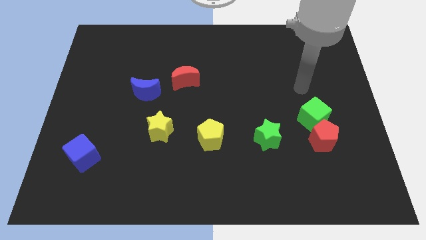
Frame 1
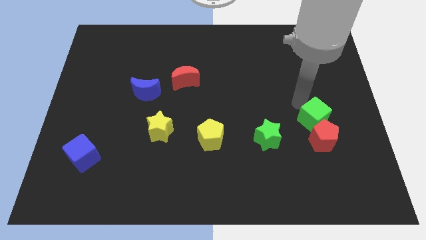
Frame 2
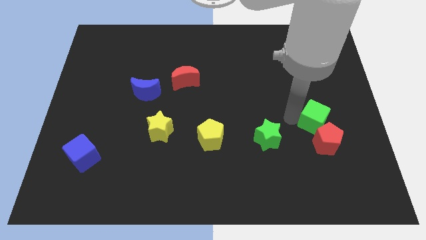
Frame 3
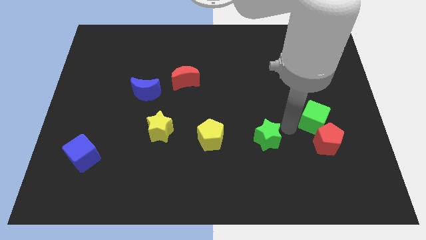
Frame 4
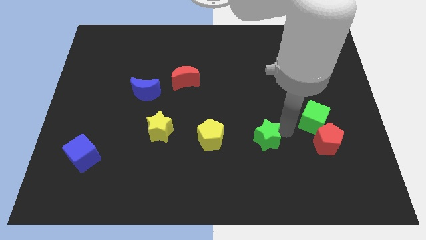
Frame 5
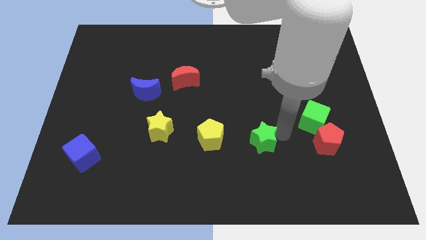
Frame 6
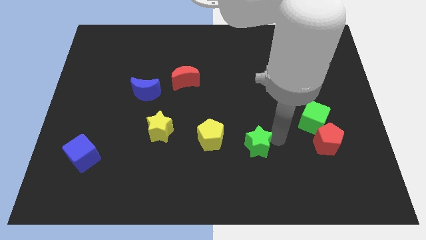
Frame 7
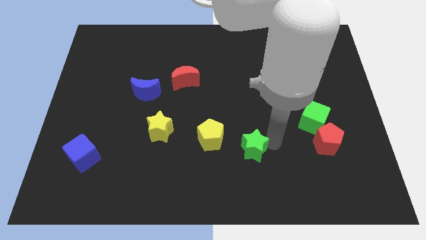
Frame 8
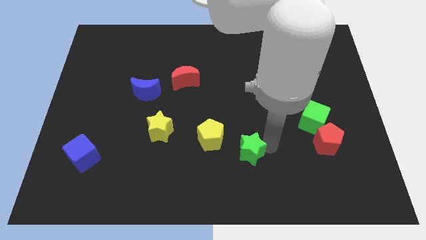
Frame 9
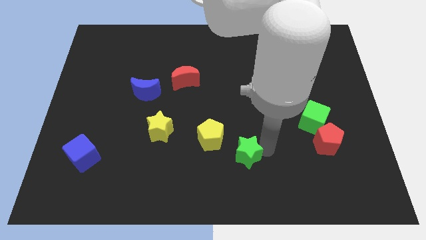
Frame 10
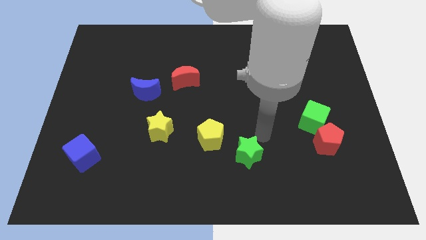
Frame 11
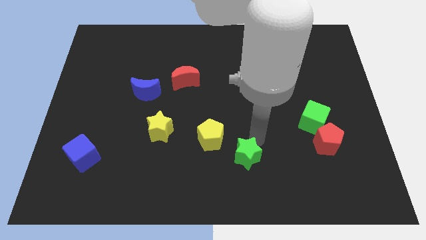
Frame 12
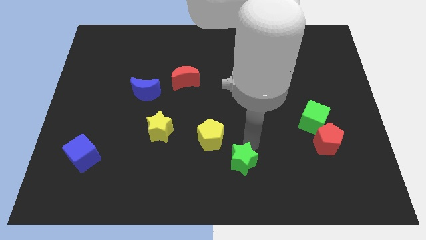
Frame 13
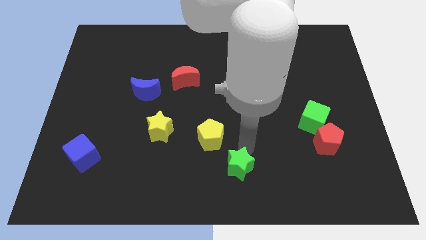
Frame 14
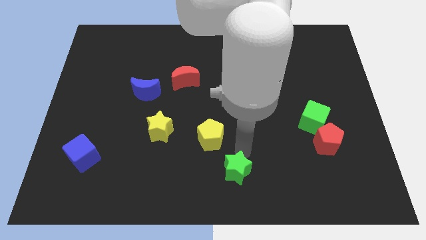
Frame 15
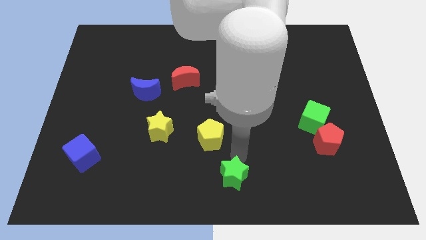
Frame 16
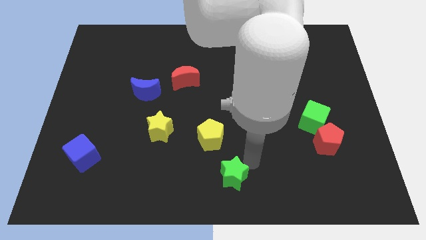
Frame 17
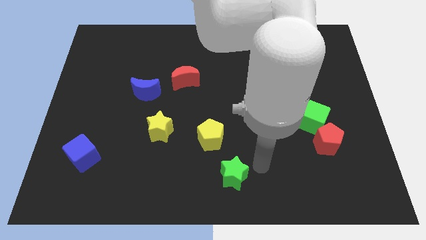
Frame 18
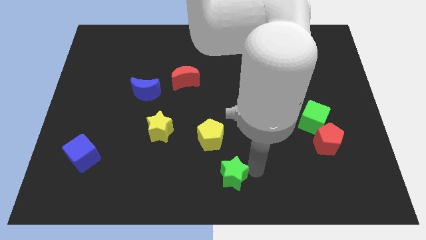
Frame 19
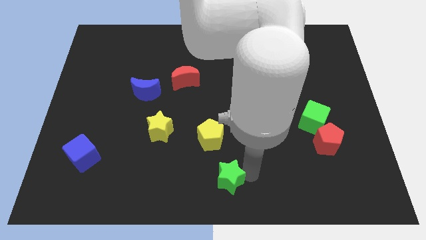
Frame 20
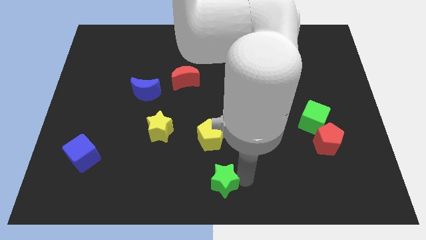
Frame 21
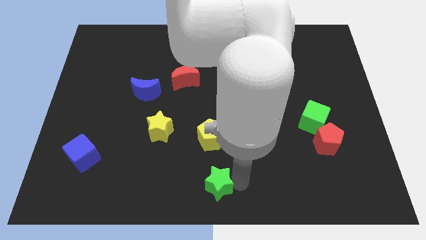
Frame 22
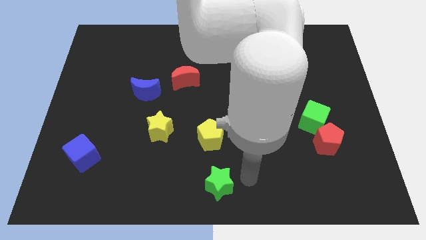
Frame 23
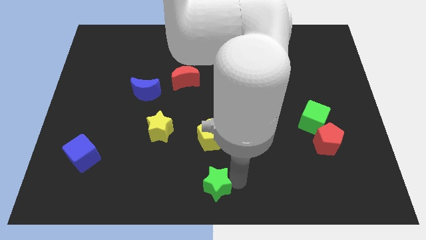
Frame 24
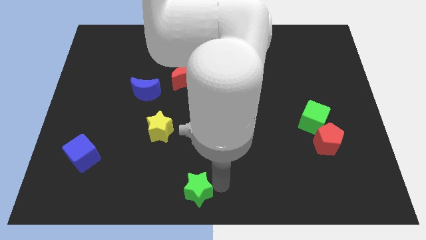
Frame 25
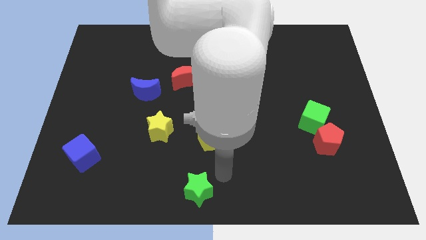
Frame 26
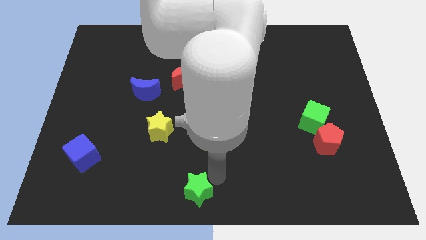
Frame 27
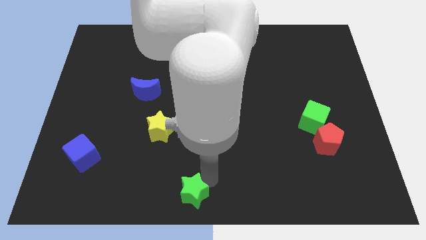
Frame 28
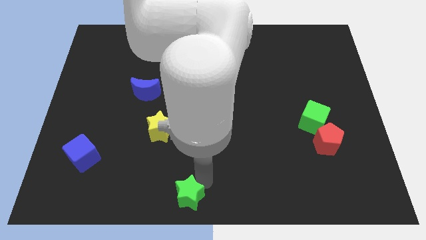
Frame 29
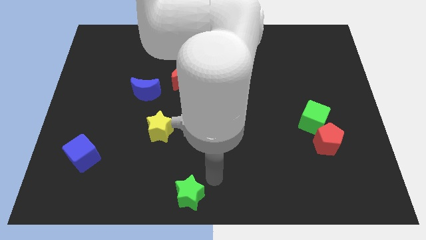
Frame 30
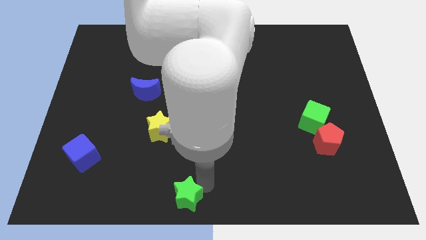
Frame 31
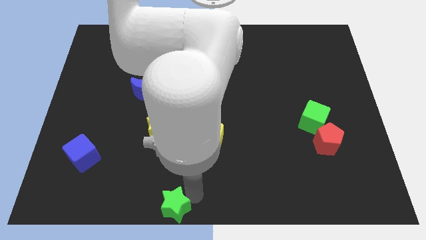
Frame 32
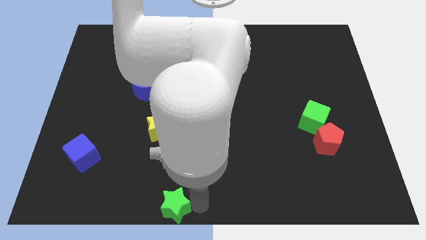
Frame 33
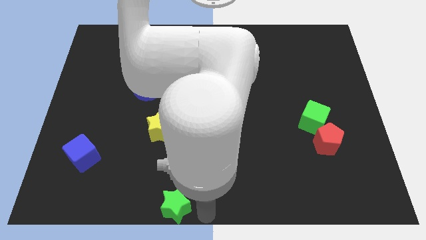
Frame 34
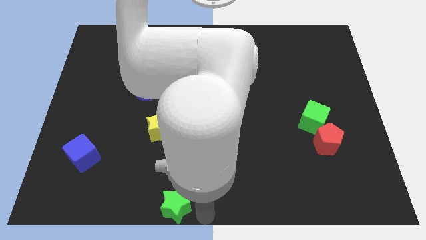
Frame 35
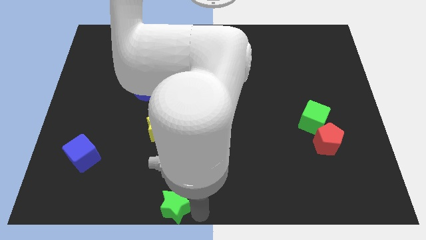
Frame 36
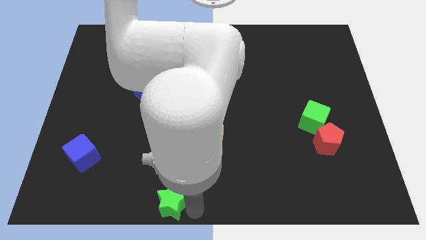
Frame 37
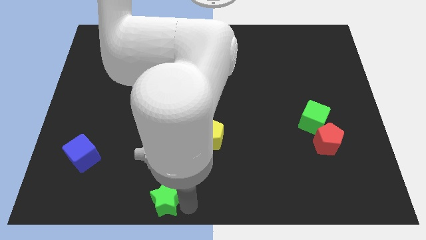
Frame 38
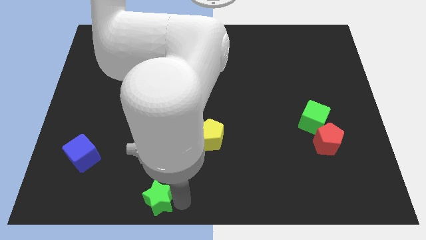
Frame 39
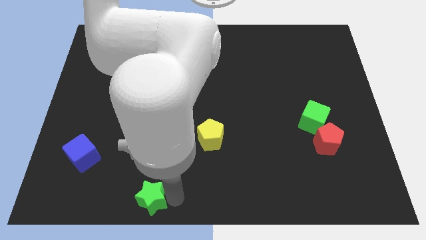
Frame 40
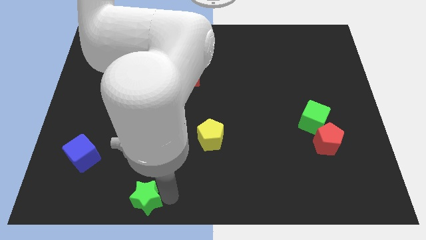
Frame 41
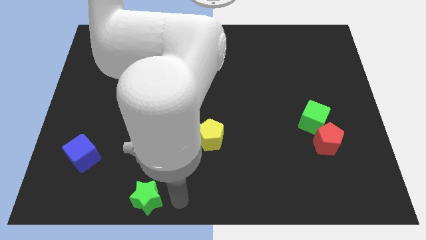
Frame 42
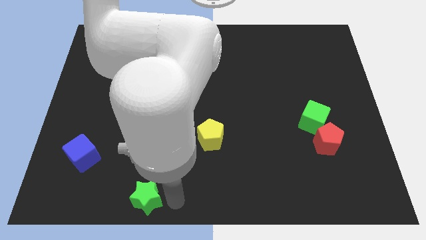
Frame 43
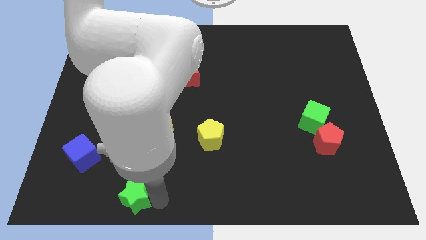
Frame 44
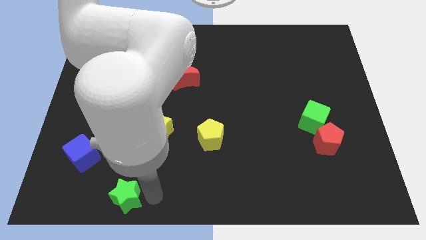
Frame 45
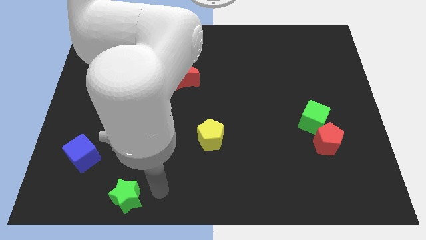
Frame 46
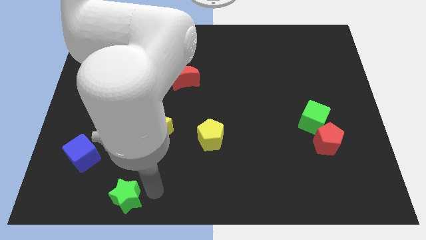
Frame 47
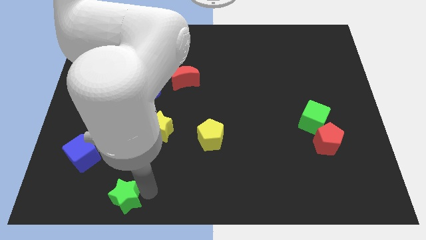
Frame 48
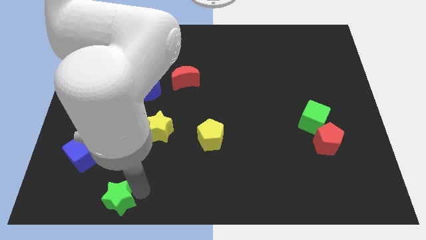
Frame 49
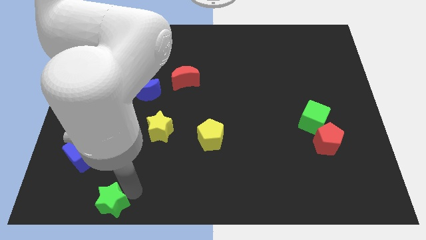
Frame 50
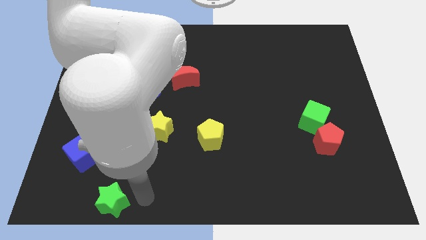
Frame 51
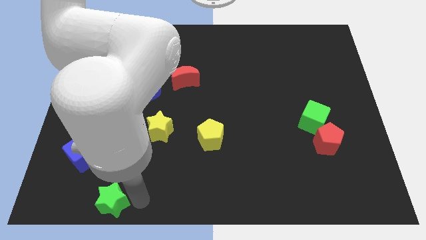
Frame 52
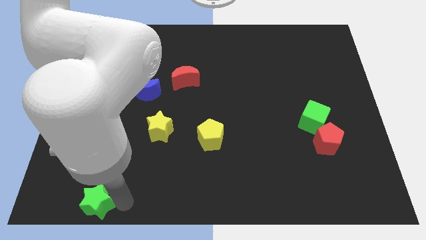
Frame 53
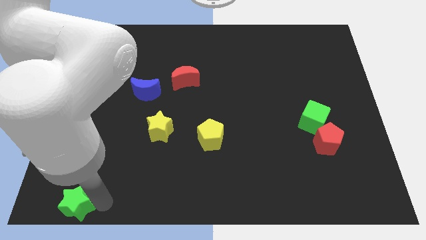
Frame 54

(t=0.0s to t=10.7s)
push the green star to the bottom left of the board
